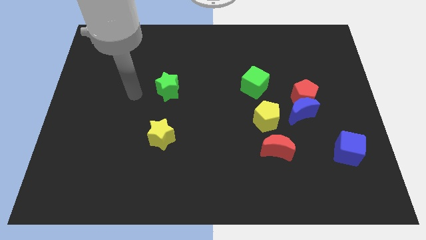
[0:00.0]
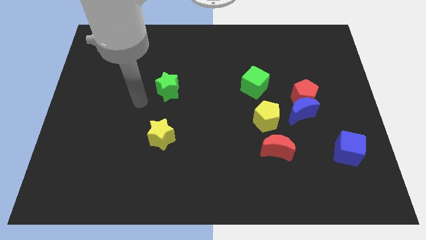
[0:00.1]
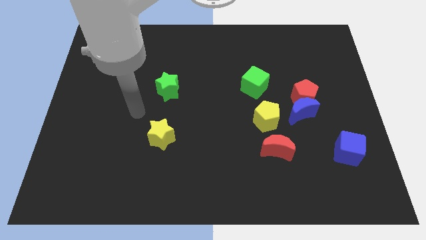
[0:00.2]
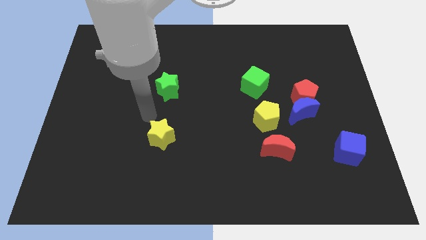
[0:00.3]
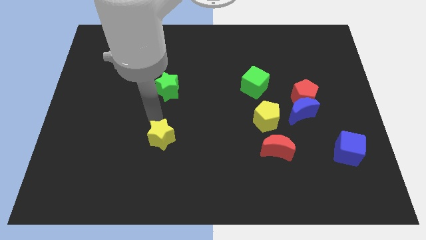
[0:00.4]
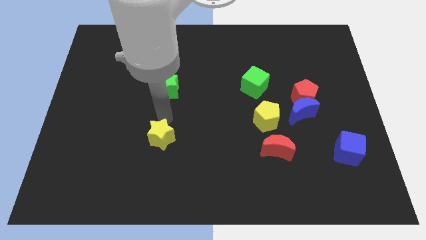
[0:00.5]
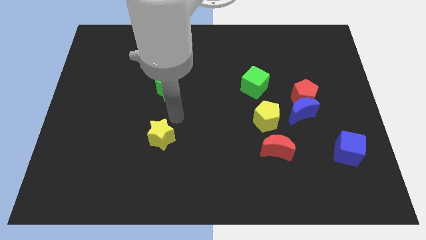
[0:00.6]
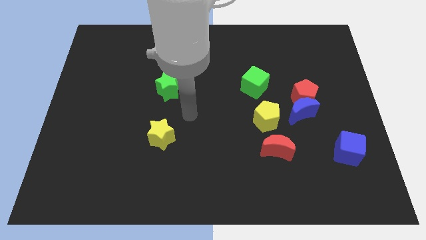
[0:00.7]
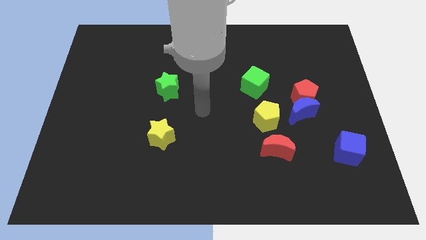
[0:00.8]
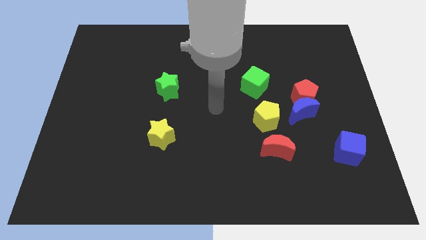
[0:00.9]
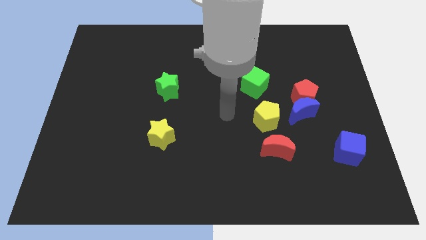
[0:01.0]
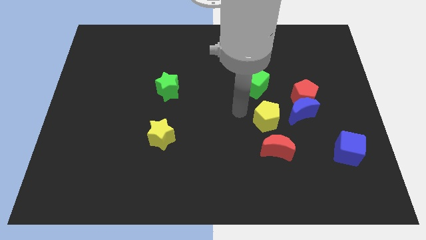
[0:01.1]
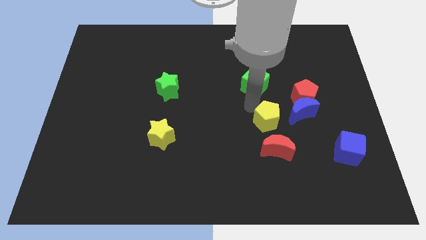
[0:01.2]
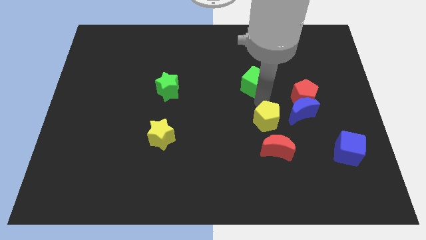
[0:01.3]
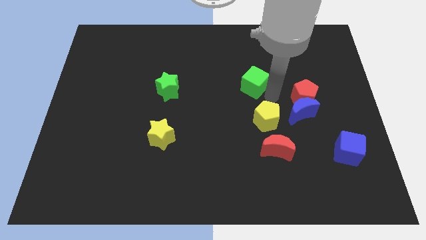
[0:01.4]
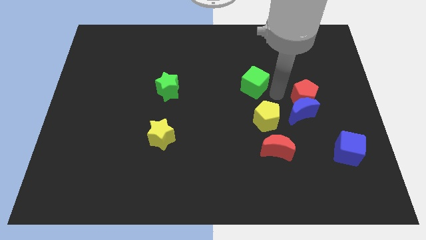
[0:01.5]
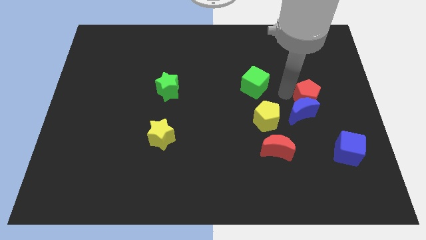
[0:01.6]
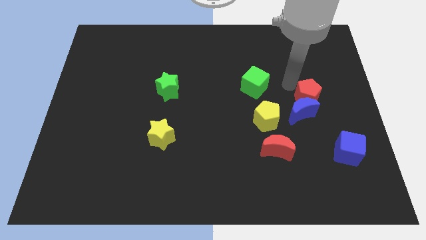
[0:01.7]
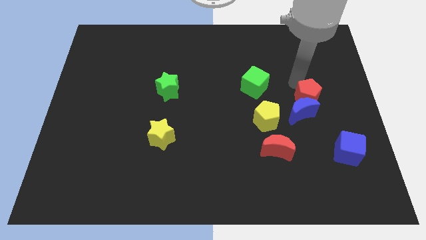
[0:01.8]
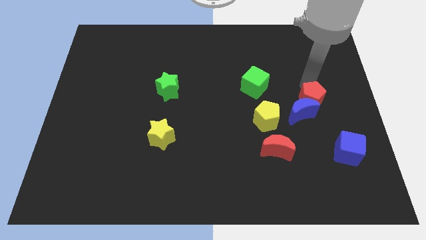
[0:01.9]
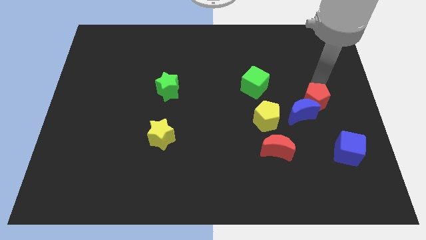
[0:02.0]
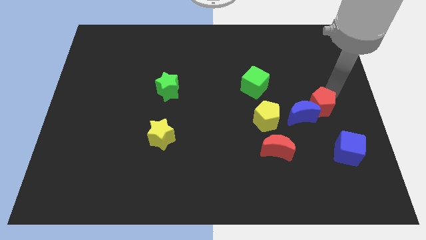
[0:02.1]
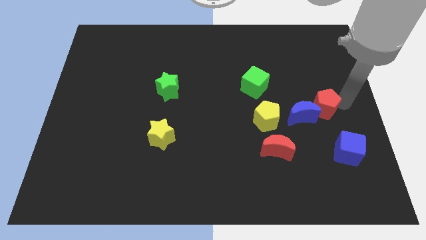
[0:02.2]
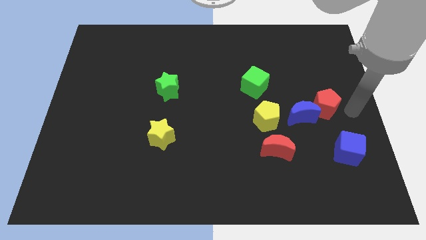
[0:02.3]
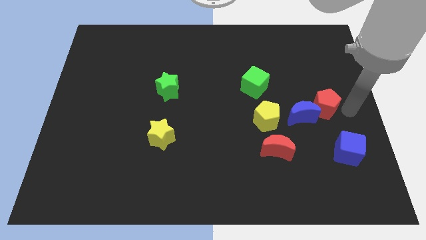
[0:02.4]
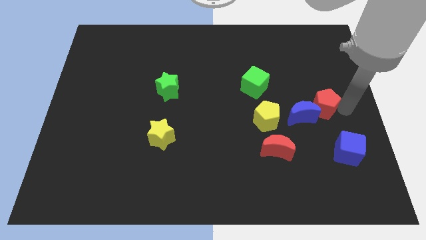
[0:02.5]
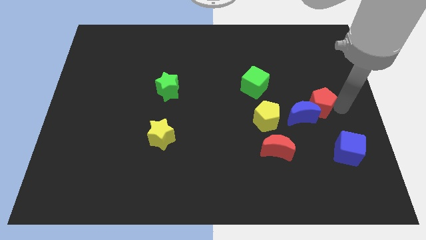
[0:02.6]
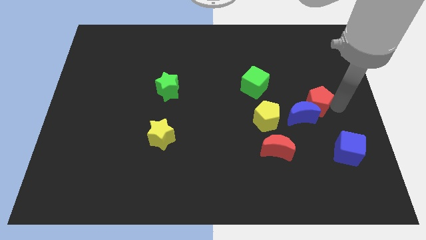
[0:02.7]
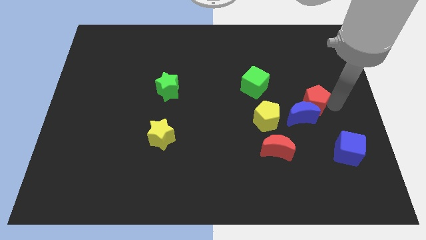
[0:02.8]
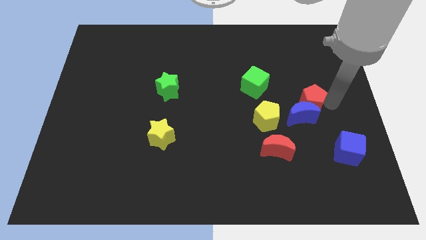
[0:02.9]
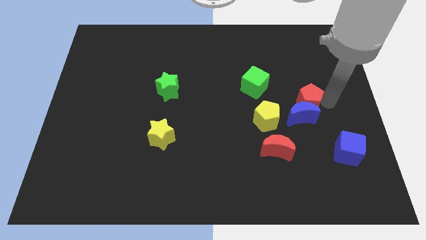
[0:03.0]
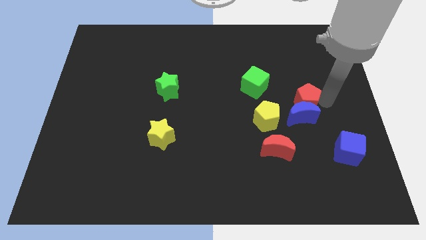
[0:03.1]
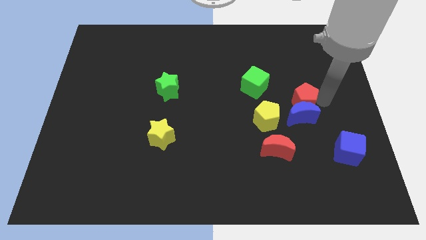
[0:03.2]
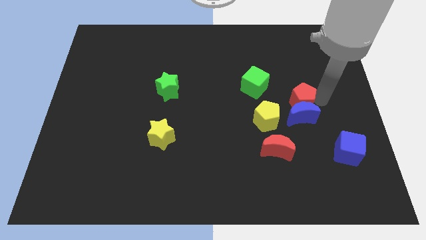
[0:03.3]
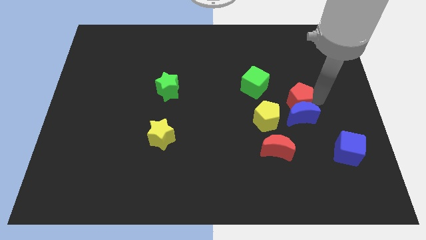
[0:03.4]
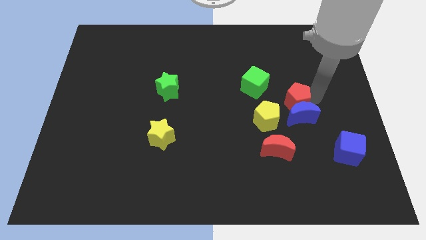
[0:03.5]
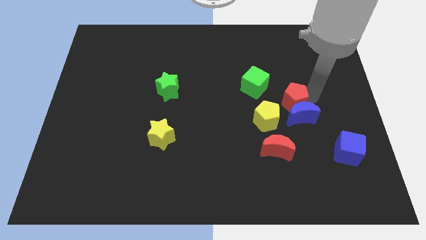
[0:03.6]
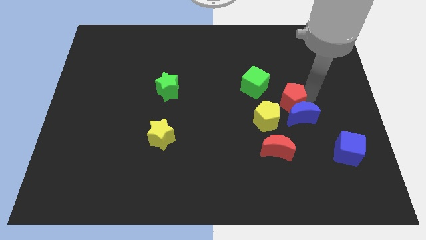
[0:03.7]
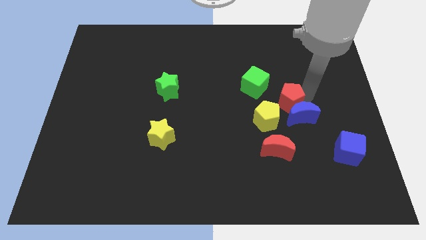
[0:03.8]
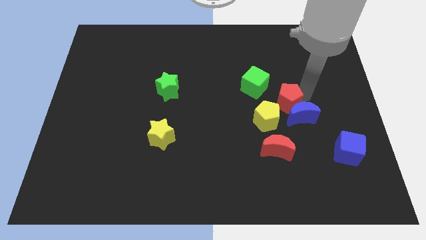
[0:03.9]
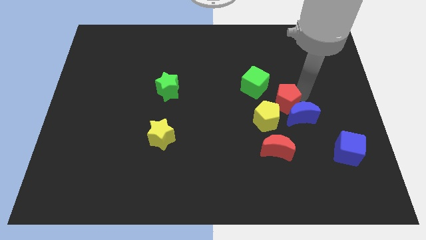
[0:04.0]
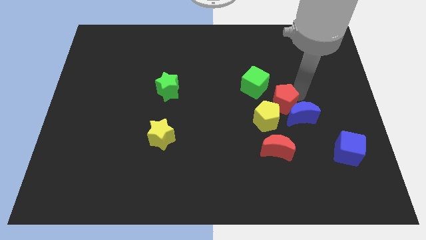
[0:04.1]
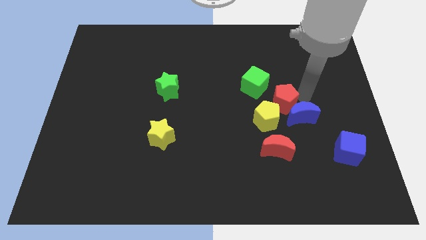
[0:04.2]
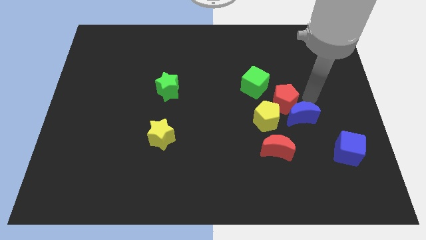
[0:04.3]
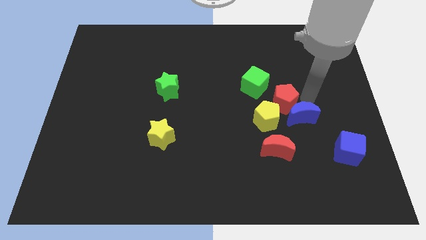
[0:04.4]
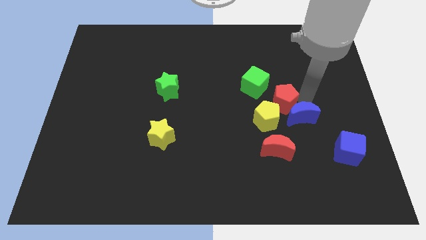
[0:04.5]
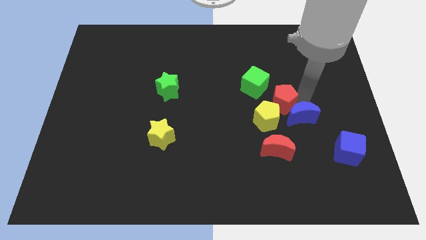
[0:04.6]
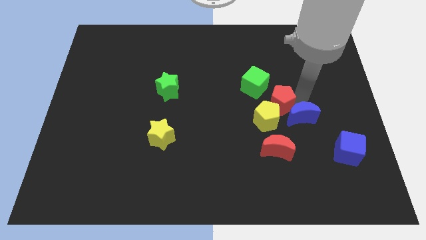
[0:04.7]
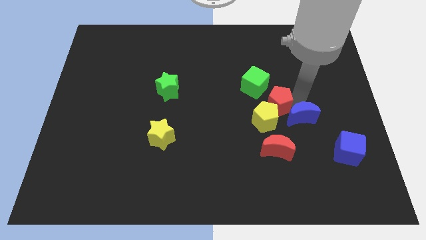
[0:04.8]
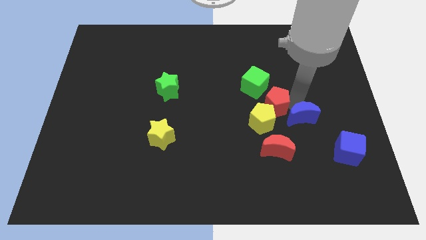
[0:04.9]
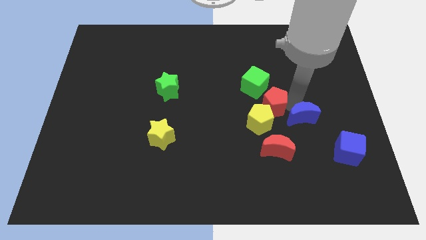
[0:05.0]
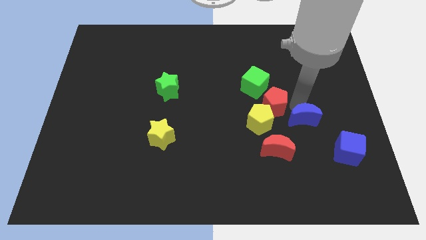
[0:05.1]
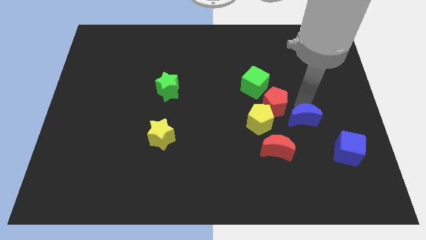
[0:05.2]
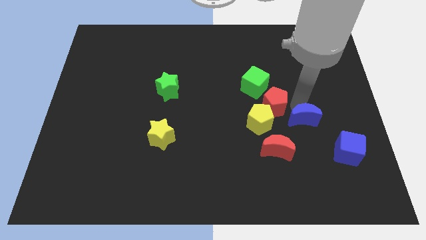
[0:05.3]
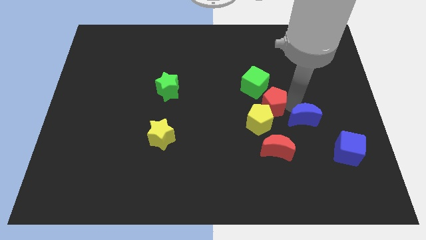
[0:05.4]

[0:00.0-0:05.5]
slide the red pentagon diagonally down and left slightly

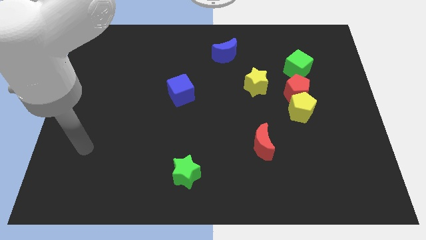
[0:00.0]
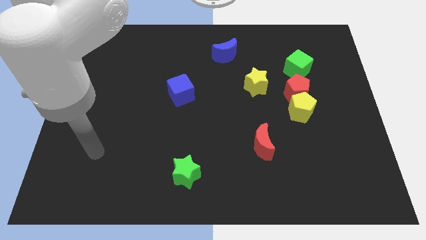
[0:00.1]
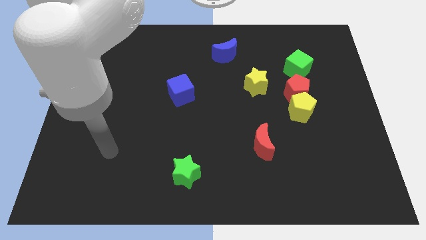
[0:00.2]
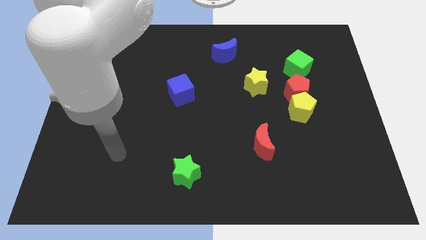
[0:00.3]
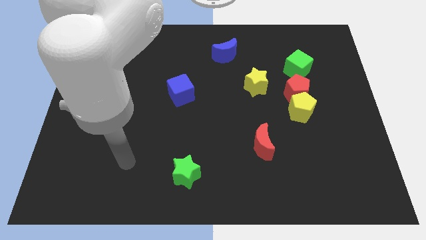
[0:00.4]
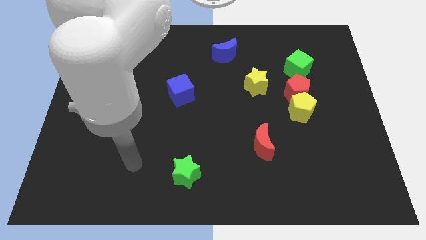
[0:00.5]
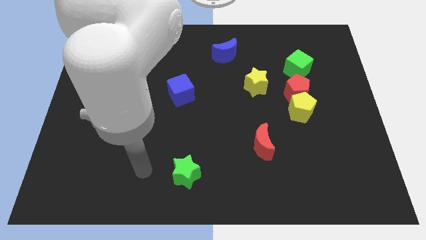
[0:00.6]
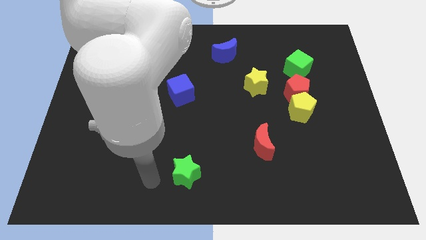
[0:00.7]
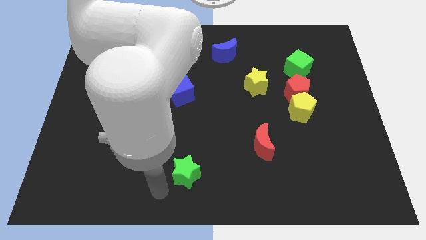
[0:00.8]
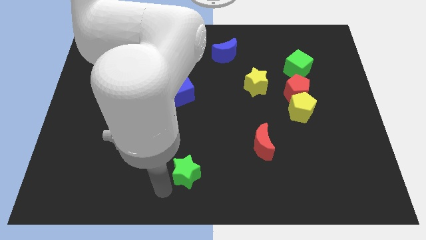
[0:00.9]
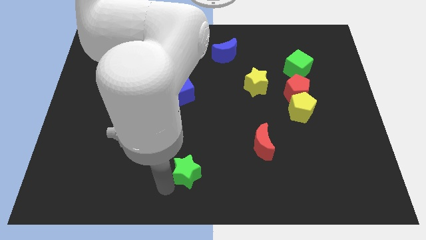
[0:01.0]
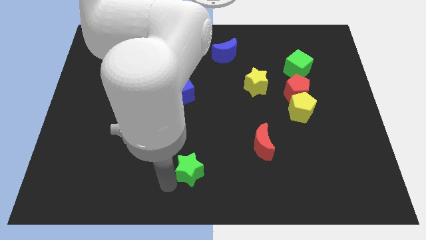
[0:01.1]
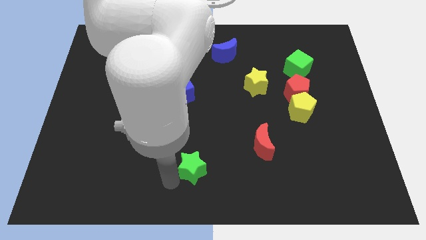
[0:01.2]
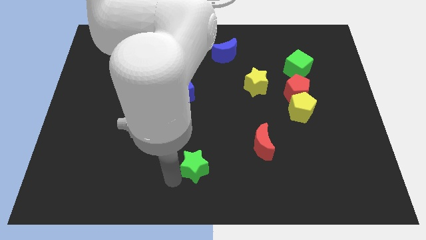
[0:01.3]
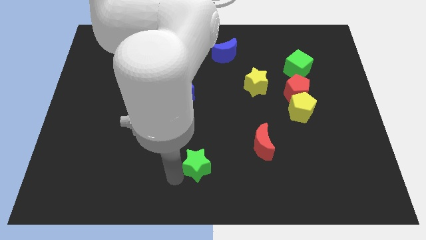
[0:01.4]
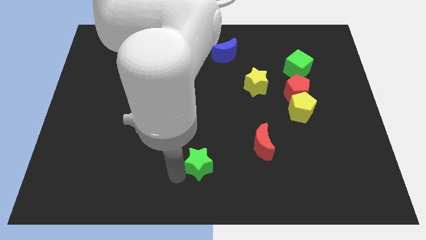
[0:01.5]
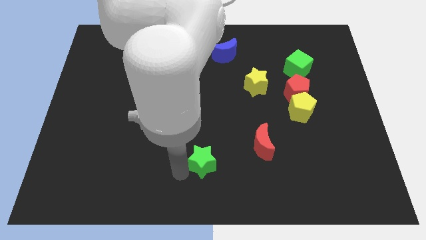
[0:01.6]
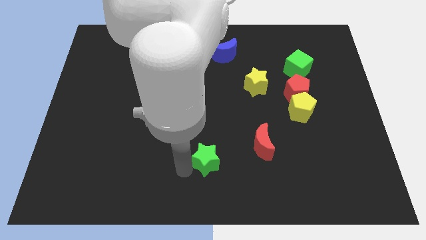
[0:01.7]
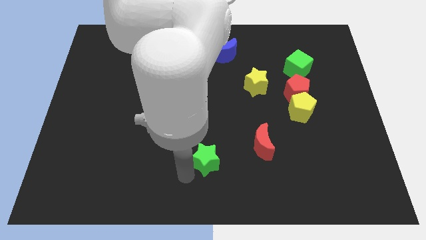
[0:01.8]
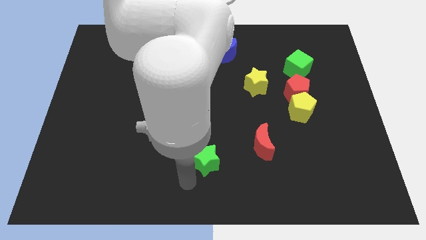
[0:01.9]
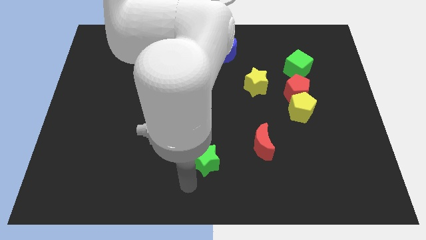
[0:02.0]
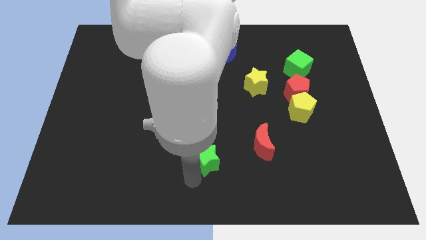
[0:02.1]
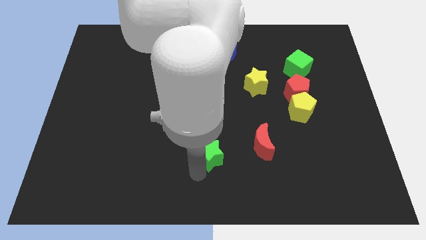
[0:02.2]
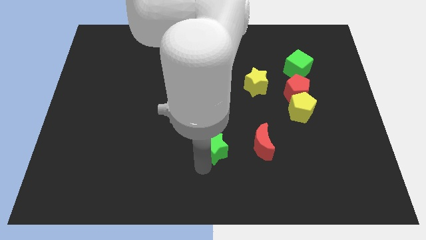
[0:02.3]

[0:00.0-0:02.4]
move the green star upwards and right a bit

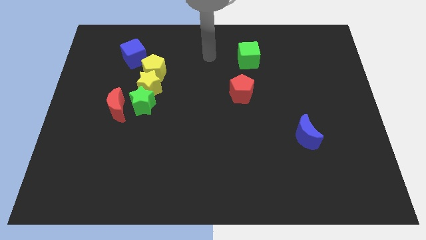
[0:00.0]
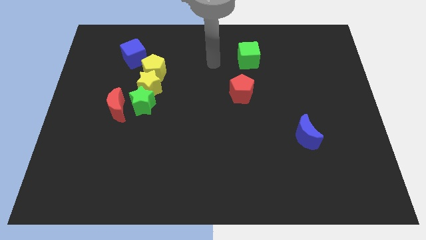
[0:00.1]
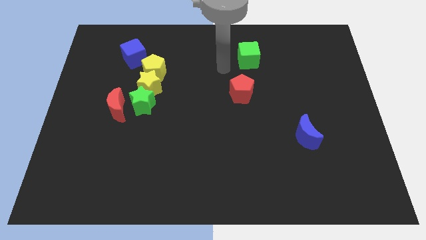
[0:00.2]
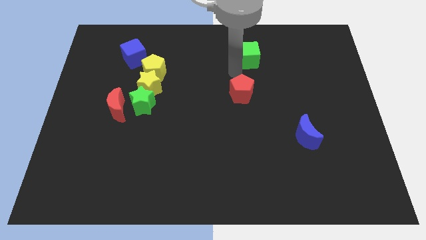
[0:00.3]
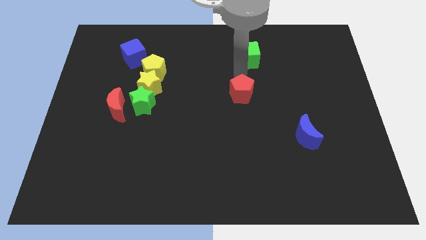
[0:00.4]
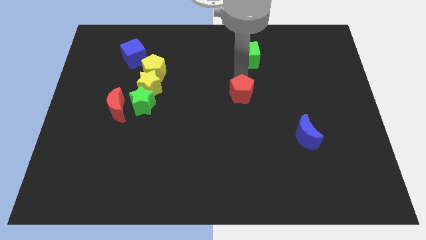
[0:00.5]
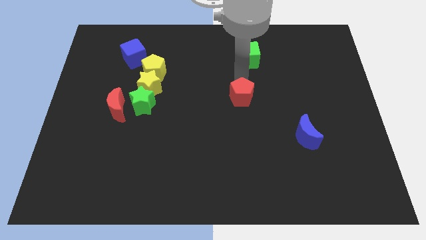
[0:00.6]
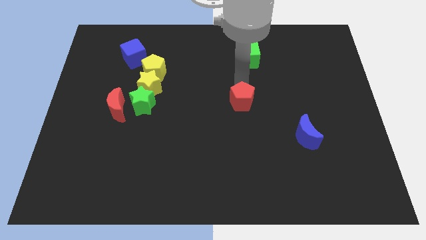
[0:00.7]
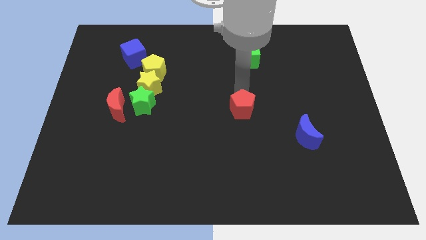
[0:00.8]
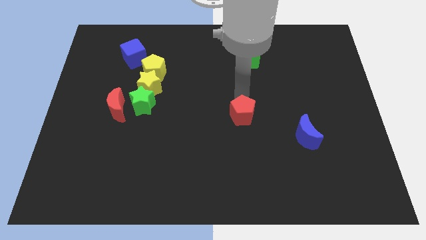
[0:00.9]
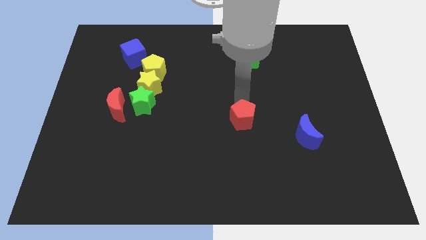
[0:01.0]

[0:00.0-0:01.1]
push the red pentagon slightly downwards
